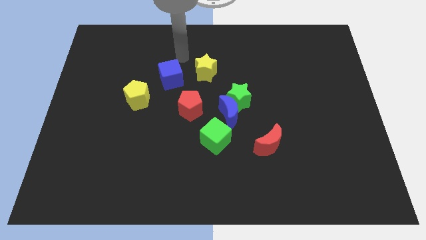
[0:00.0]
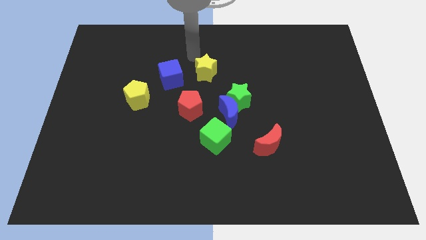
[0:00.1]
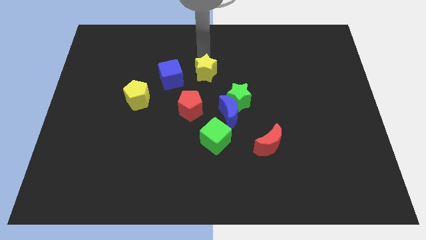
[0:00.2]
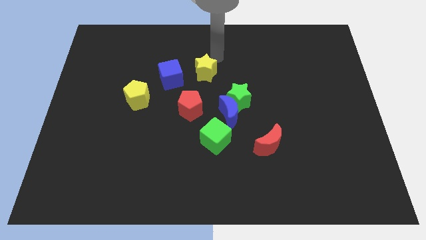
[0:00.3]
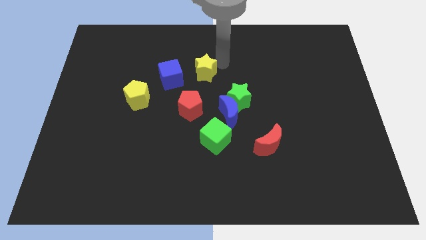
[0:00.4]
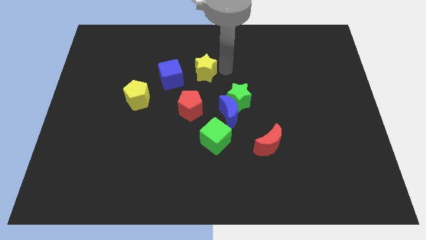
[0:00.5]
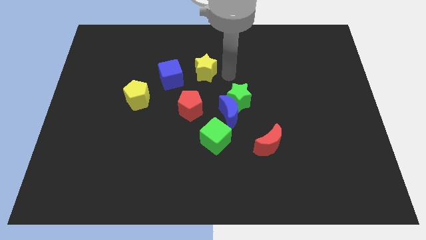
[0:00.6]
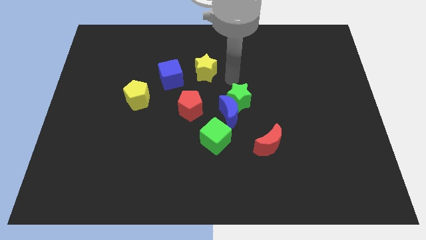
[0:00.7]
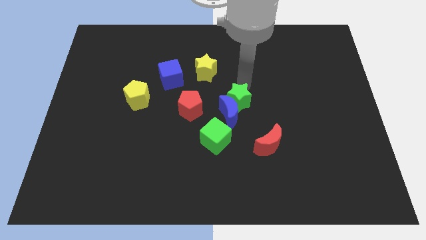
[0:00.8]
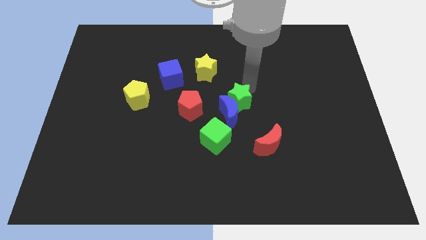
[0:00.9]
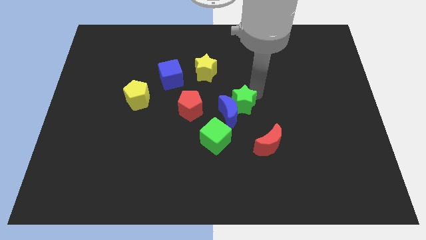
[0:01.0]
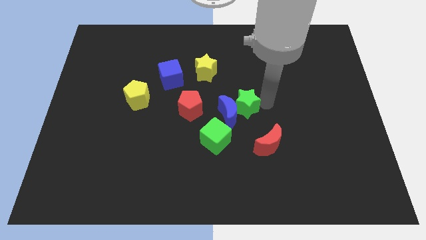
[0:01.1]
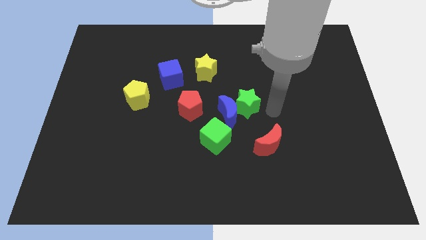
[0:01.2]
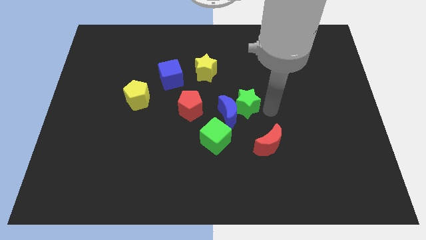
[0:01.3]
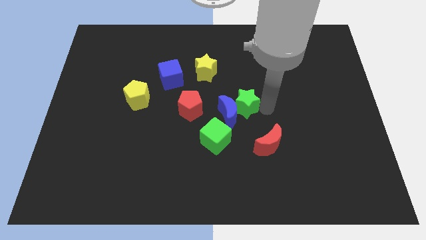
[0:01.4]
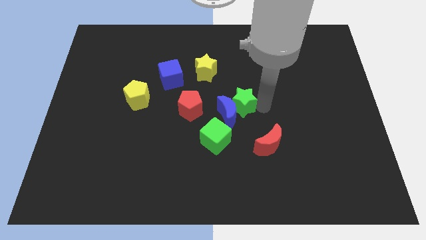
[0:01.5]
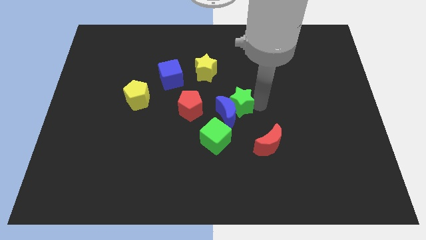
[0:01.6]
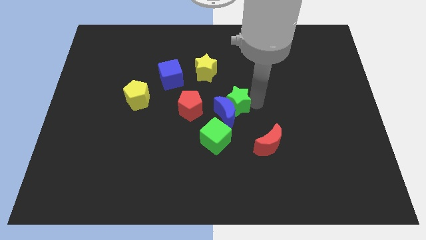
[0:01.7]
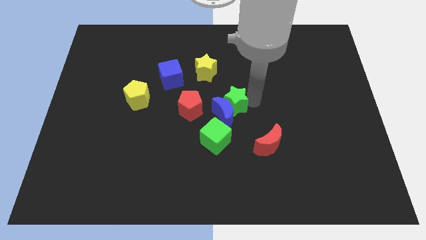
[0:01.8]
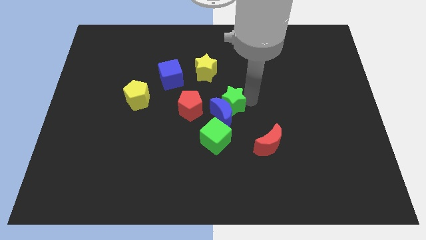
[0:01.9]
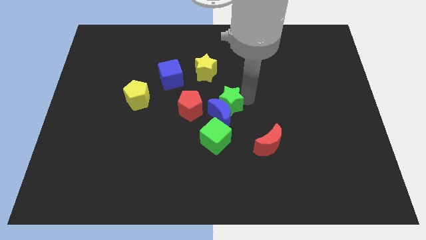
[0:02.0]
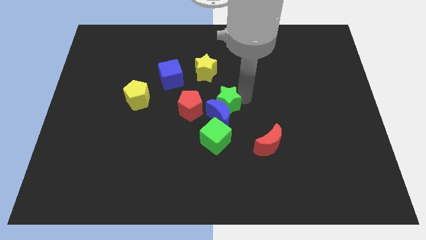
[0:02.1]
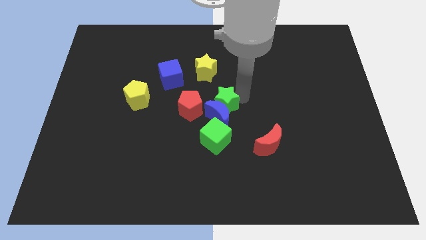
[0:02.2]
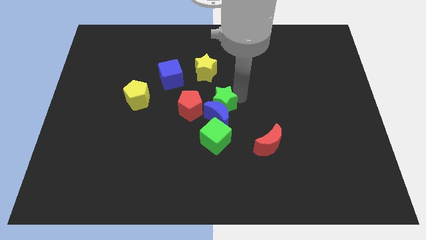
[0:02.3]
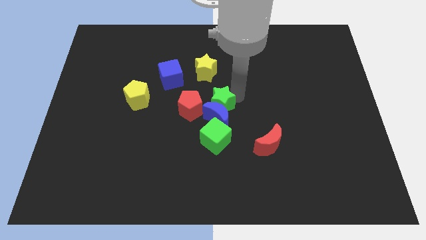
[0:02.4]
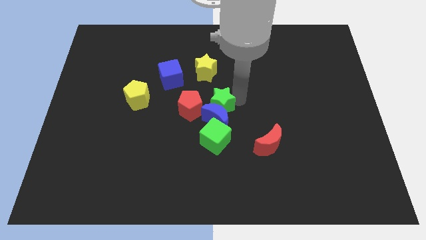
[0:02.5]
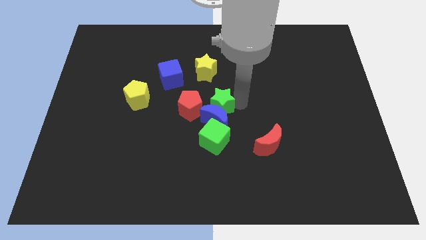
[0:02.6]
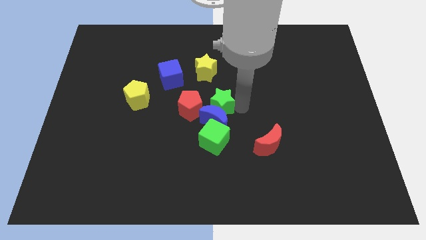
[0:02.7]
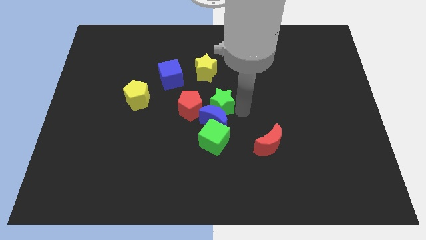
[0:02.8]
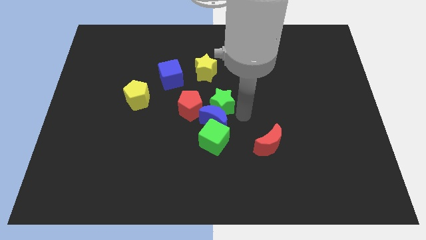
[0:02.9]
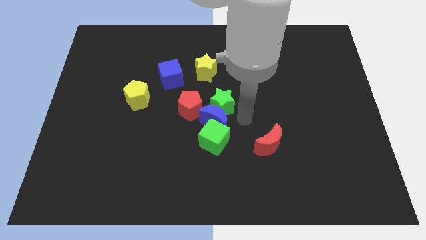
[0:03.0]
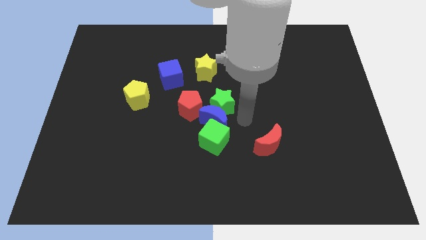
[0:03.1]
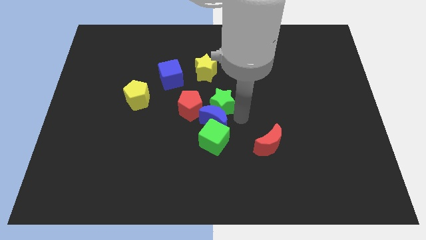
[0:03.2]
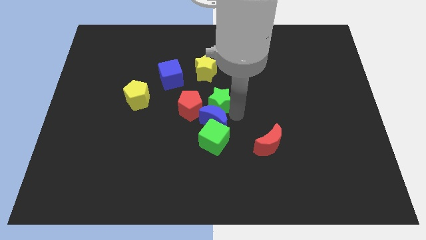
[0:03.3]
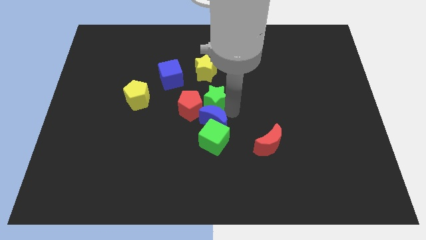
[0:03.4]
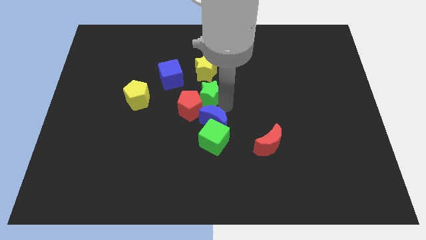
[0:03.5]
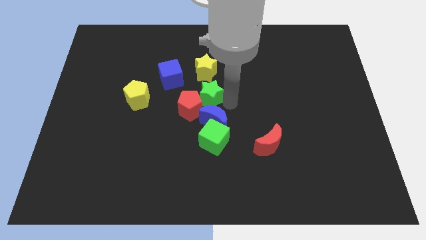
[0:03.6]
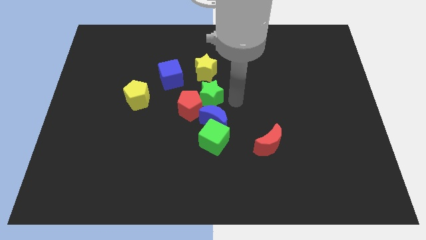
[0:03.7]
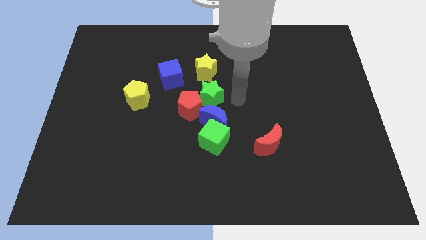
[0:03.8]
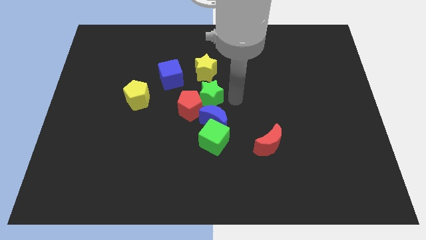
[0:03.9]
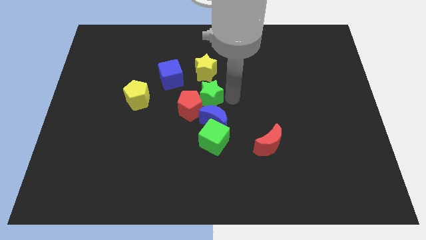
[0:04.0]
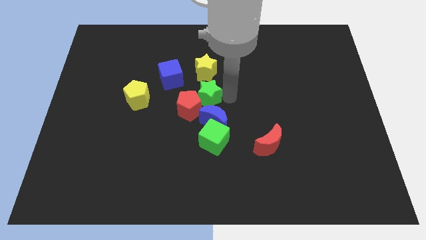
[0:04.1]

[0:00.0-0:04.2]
move the green star left slightly

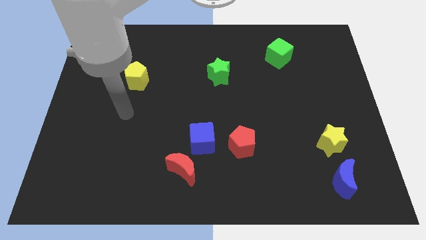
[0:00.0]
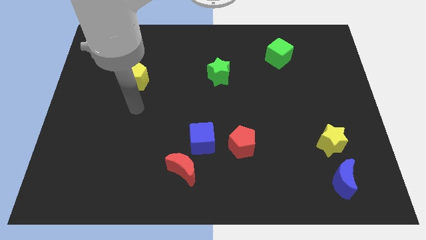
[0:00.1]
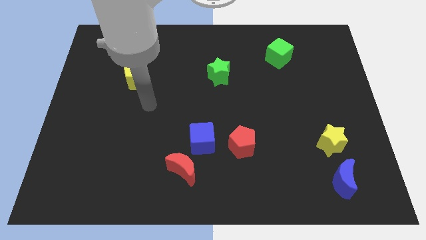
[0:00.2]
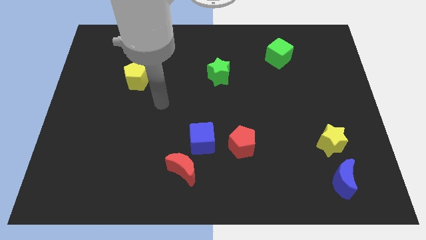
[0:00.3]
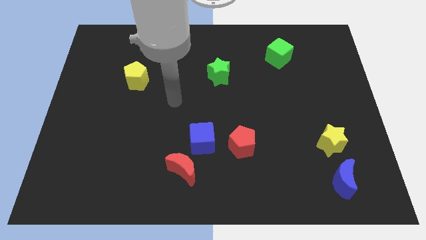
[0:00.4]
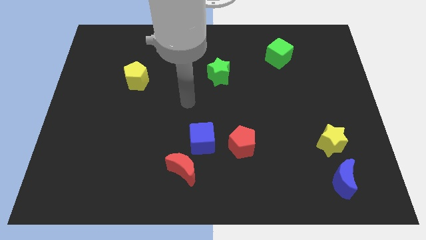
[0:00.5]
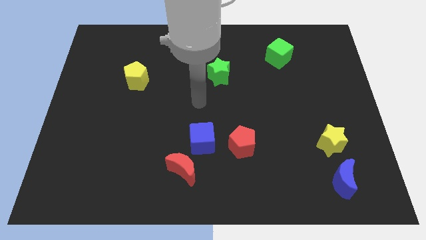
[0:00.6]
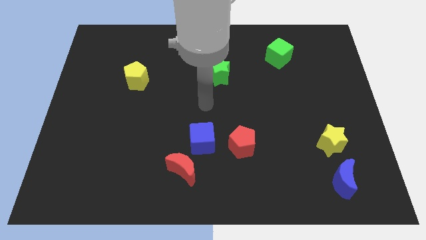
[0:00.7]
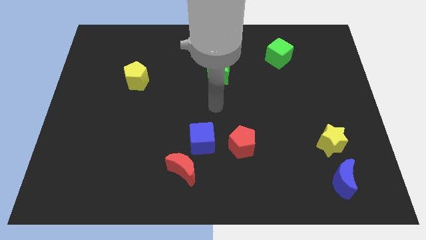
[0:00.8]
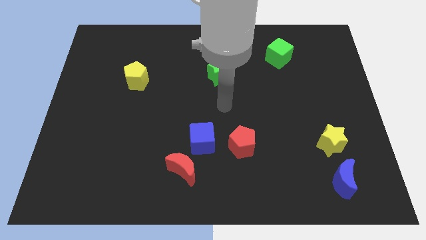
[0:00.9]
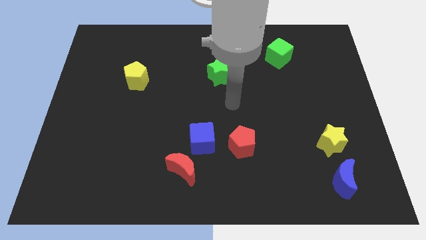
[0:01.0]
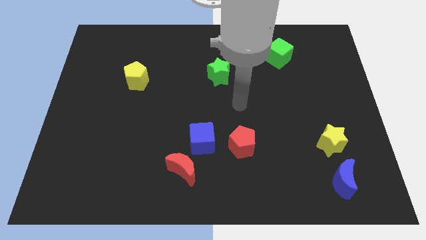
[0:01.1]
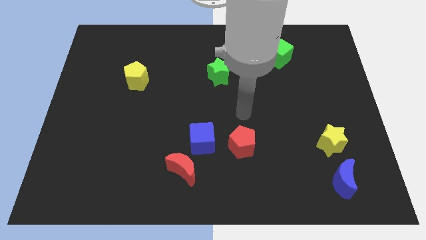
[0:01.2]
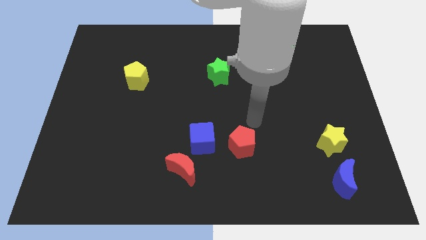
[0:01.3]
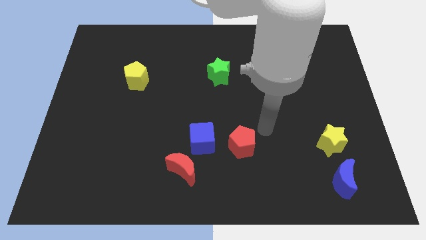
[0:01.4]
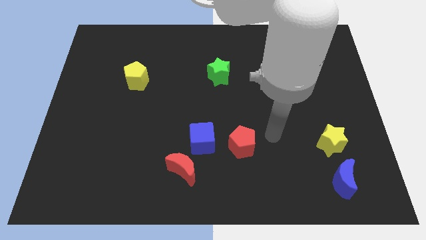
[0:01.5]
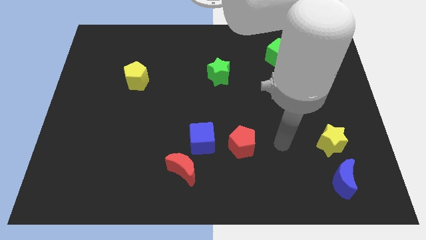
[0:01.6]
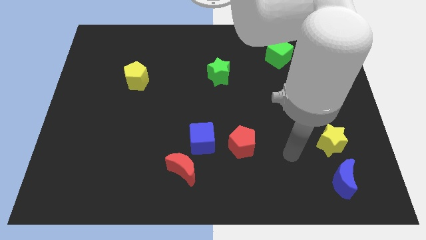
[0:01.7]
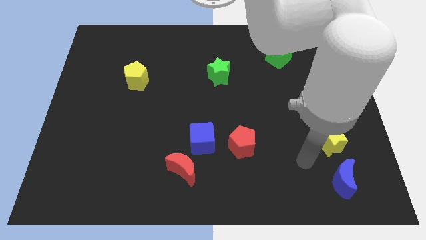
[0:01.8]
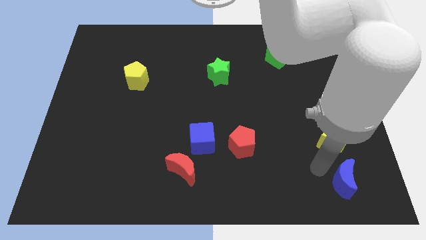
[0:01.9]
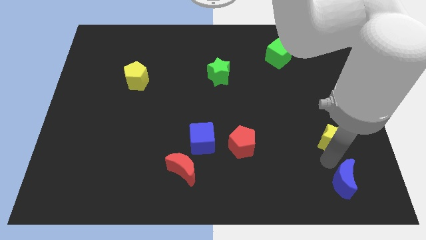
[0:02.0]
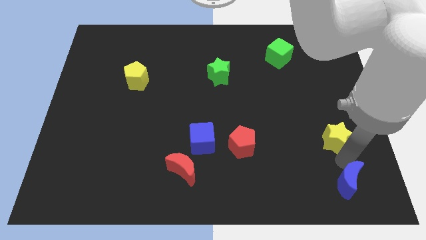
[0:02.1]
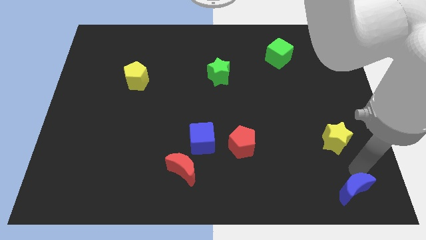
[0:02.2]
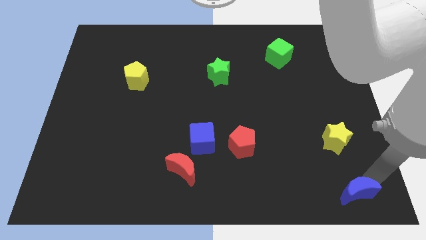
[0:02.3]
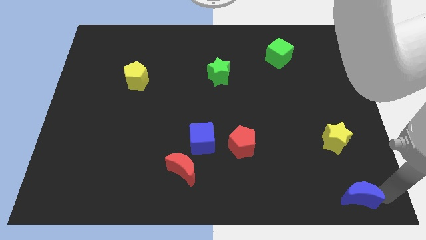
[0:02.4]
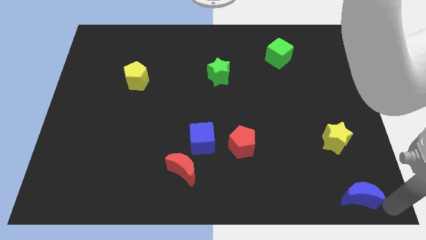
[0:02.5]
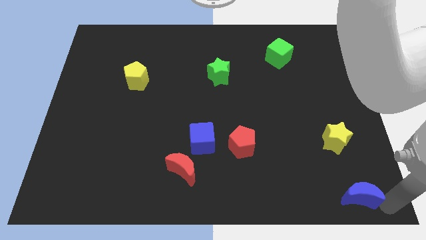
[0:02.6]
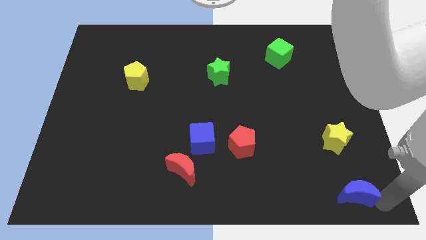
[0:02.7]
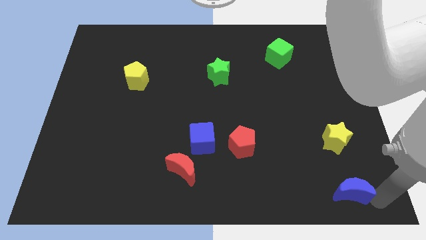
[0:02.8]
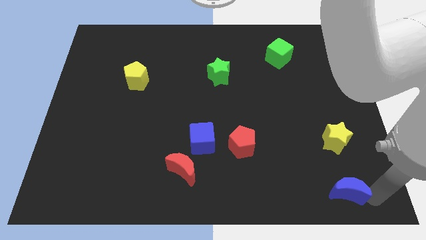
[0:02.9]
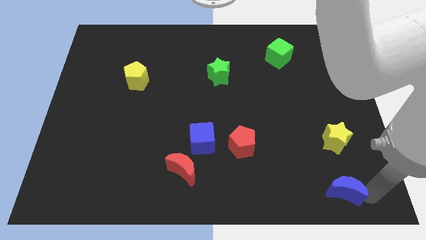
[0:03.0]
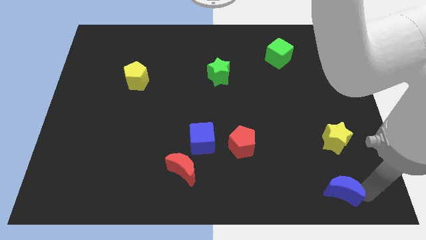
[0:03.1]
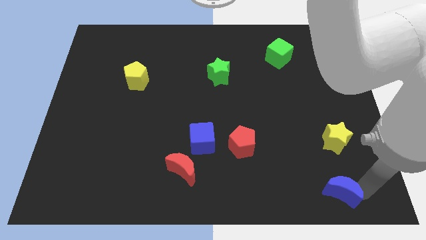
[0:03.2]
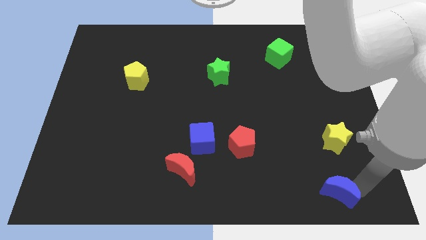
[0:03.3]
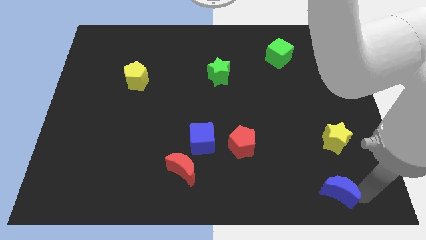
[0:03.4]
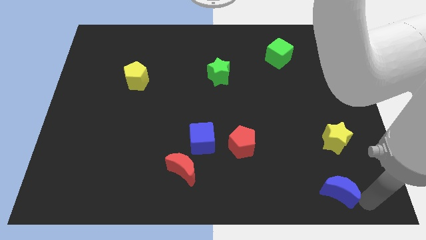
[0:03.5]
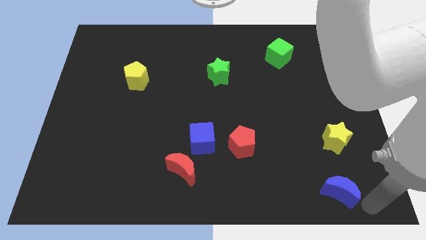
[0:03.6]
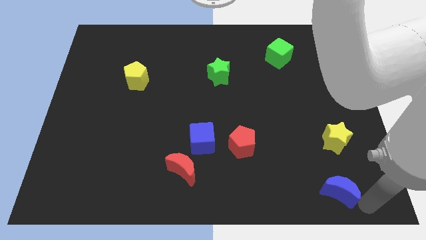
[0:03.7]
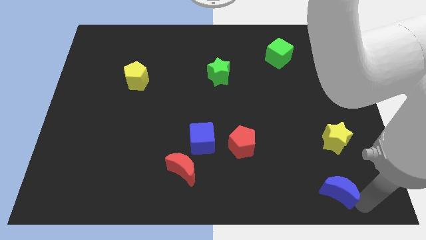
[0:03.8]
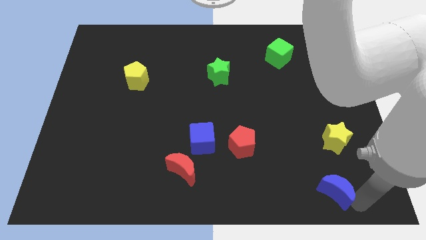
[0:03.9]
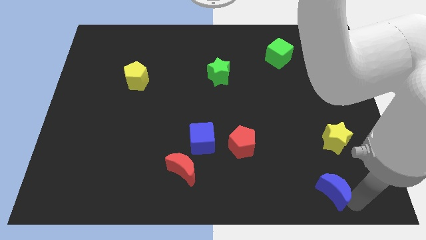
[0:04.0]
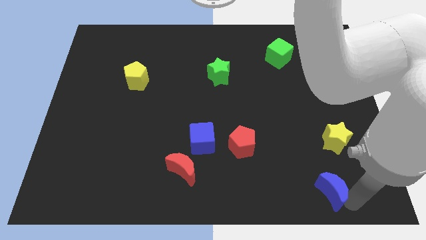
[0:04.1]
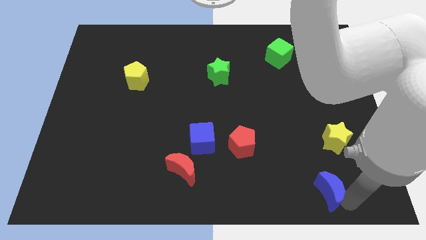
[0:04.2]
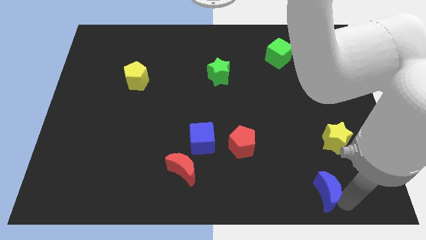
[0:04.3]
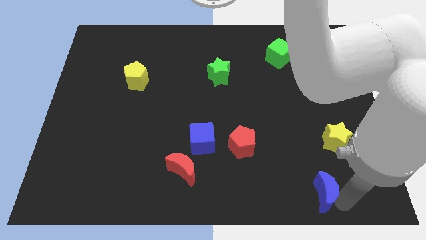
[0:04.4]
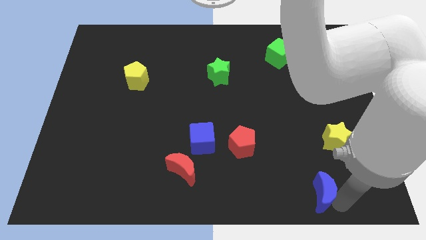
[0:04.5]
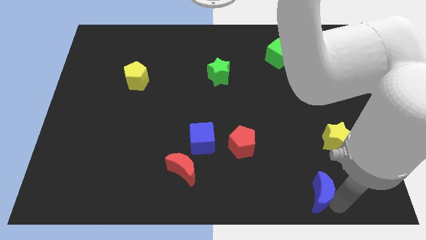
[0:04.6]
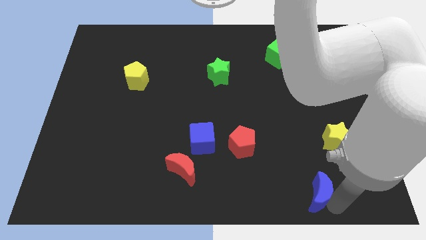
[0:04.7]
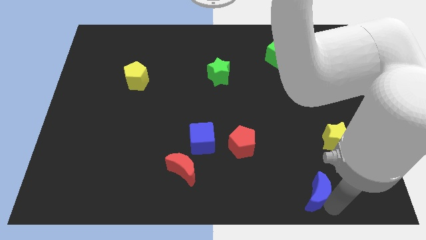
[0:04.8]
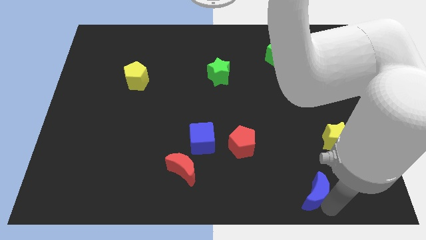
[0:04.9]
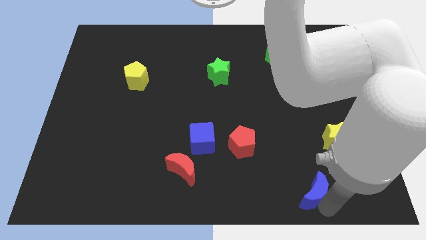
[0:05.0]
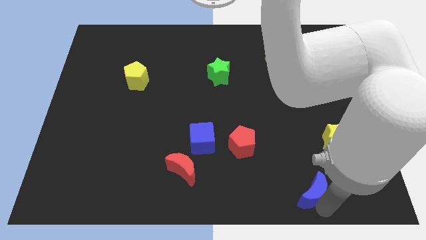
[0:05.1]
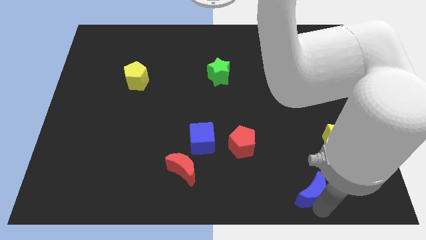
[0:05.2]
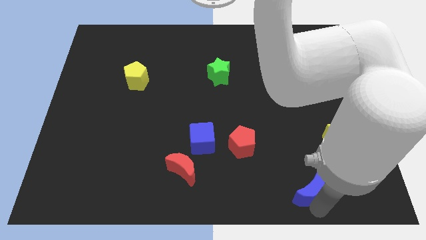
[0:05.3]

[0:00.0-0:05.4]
move the blue moon to the left somewhat
